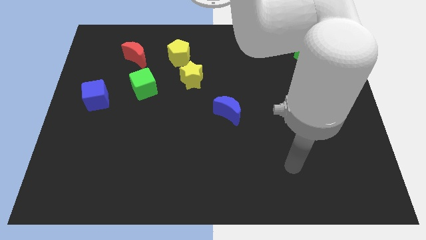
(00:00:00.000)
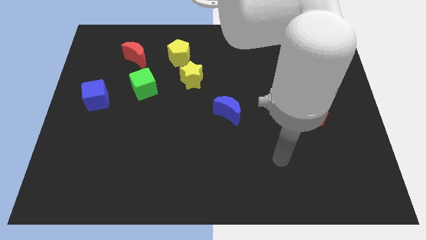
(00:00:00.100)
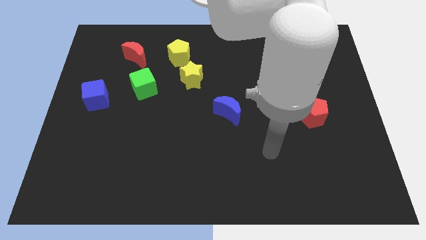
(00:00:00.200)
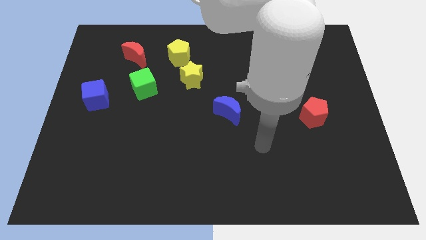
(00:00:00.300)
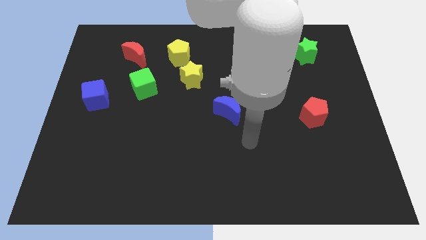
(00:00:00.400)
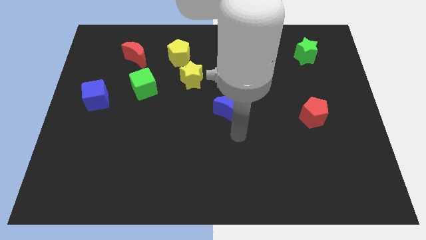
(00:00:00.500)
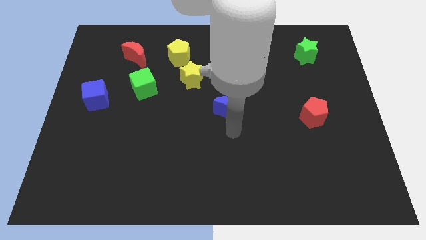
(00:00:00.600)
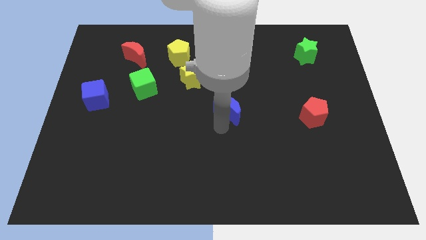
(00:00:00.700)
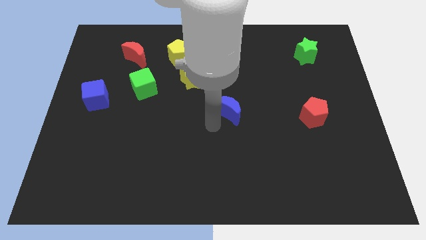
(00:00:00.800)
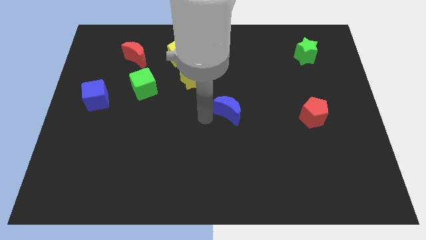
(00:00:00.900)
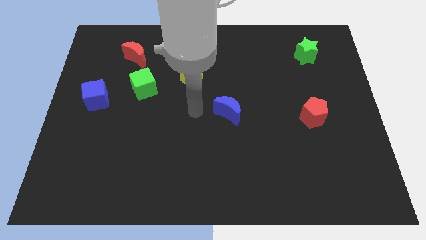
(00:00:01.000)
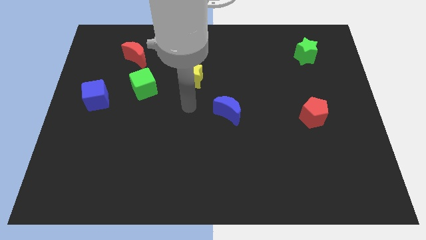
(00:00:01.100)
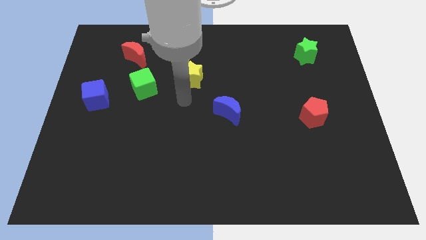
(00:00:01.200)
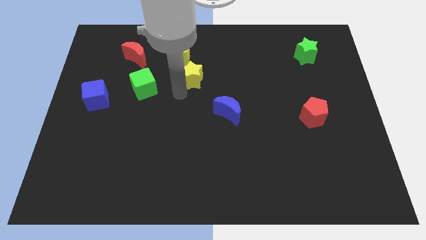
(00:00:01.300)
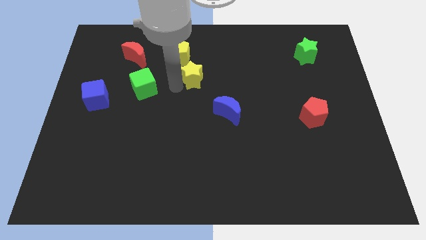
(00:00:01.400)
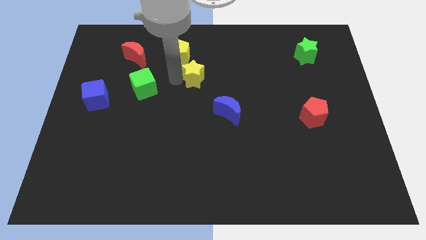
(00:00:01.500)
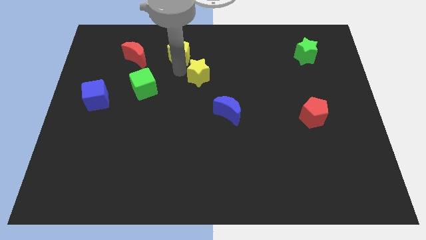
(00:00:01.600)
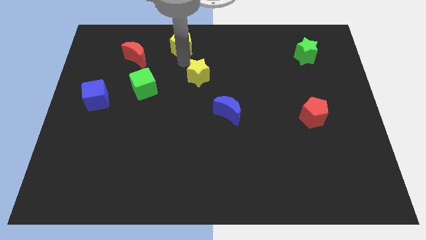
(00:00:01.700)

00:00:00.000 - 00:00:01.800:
pull the yellow star apart from the yellow pentagon

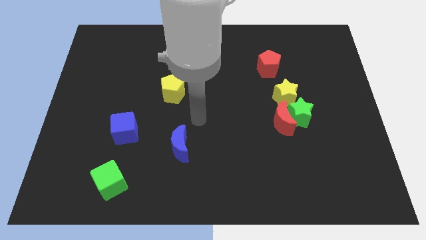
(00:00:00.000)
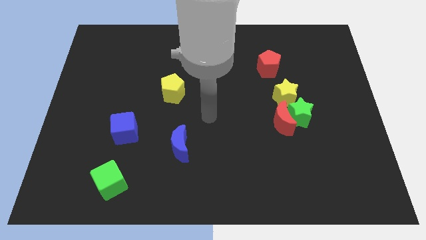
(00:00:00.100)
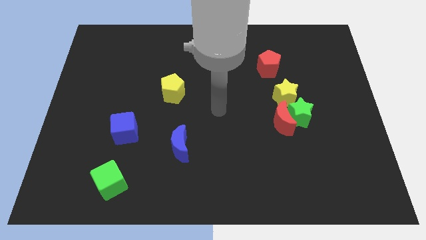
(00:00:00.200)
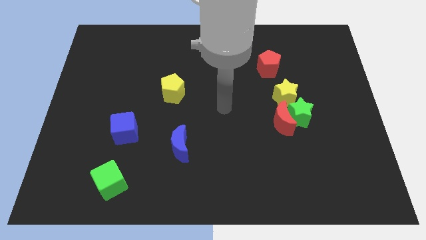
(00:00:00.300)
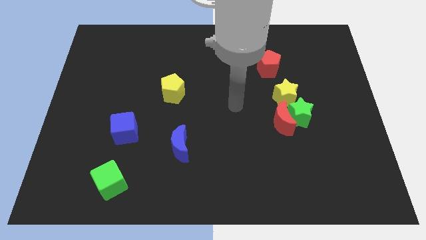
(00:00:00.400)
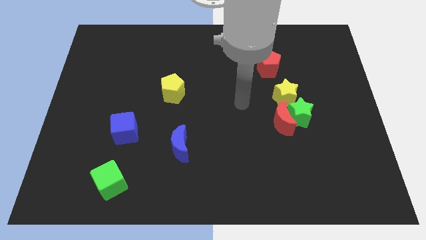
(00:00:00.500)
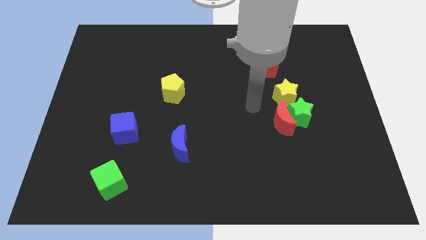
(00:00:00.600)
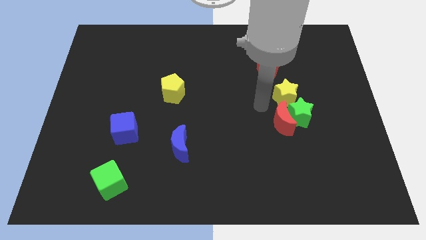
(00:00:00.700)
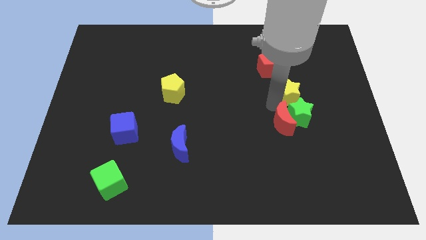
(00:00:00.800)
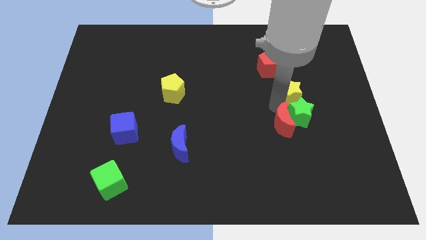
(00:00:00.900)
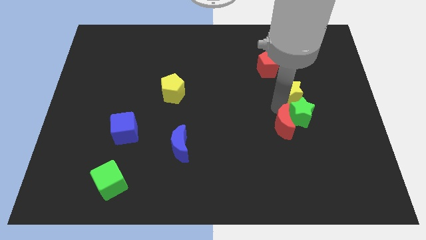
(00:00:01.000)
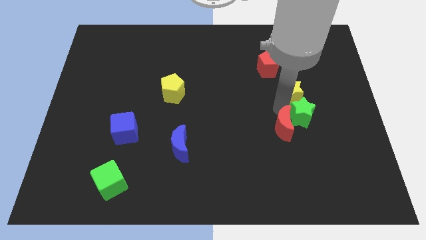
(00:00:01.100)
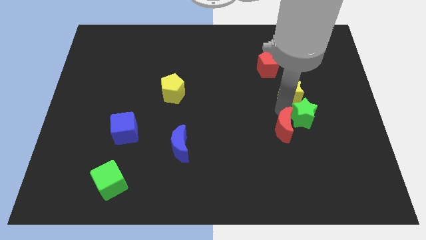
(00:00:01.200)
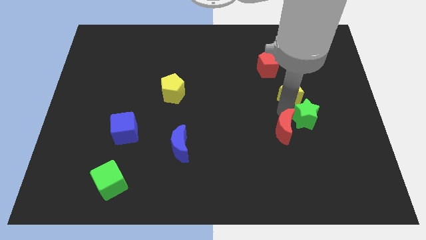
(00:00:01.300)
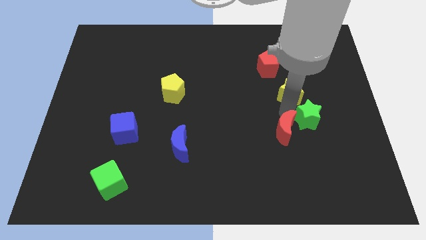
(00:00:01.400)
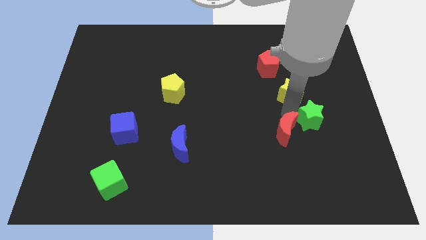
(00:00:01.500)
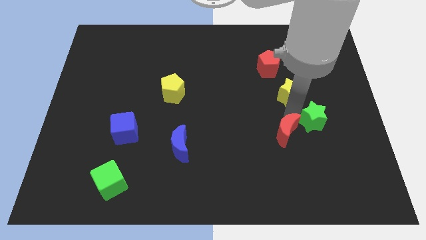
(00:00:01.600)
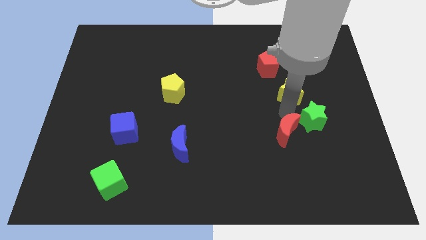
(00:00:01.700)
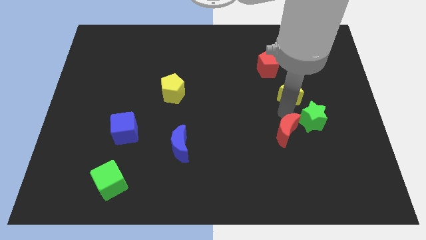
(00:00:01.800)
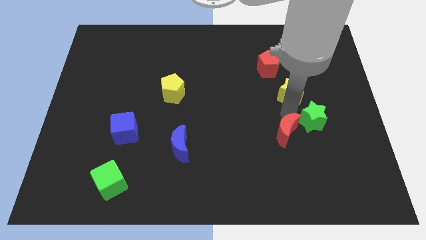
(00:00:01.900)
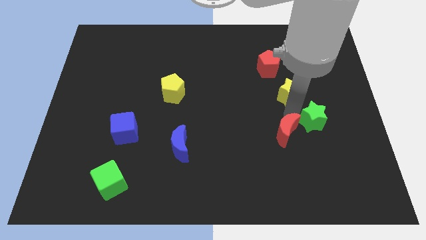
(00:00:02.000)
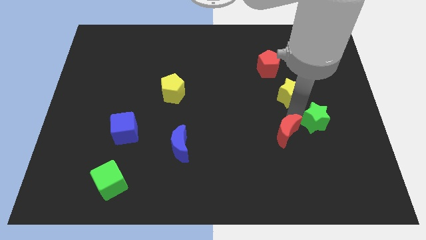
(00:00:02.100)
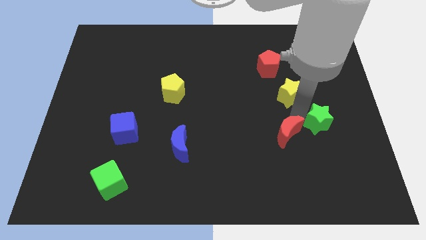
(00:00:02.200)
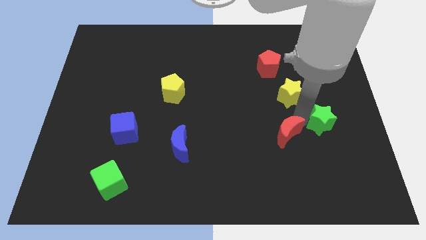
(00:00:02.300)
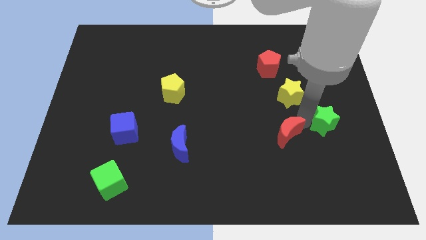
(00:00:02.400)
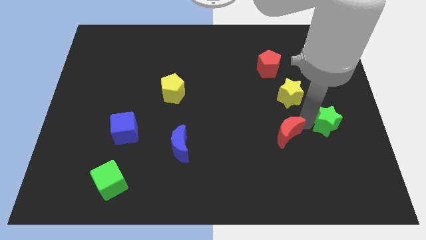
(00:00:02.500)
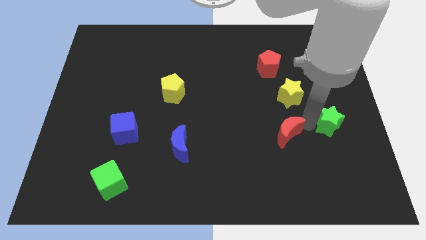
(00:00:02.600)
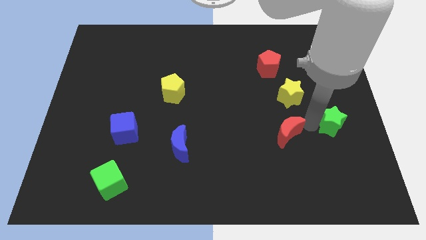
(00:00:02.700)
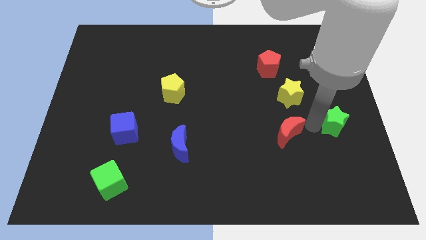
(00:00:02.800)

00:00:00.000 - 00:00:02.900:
pull the green star apart from the red moon and yellow star

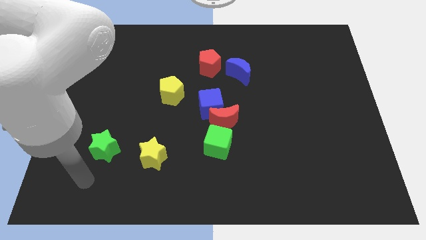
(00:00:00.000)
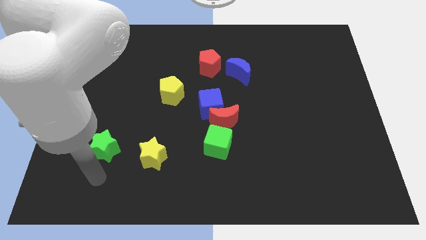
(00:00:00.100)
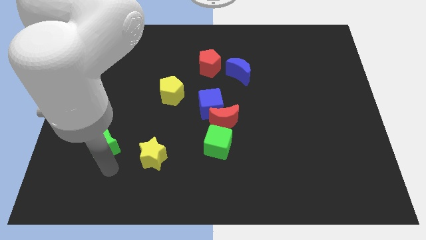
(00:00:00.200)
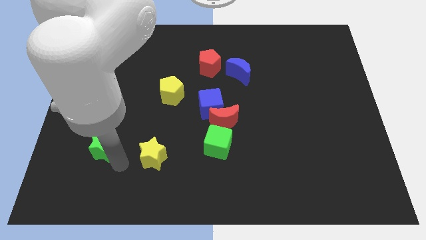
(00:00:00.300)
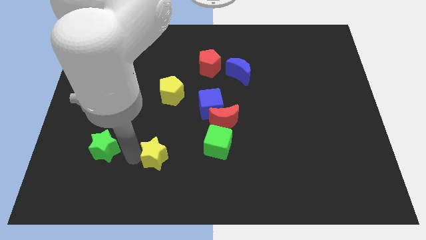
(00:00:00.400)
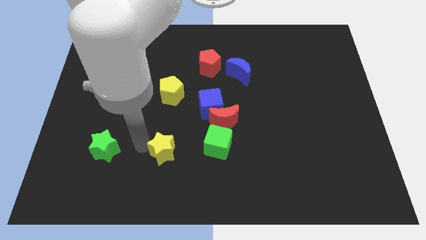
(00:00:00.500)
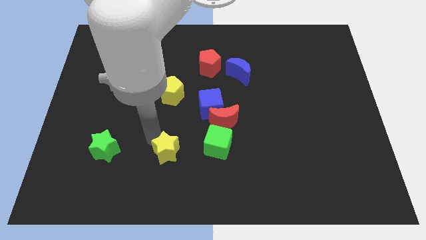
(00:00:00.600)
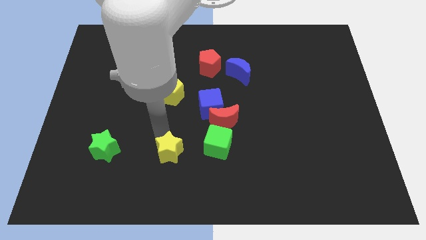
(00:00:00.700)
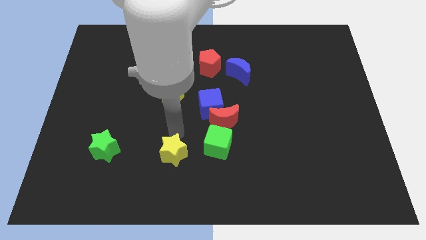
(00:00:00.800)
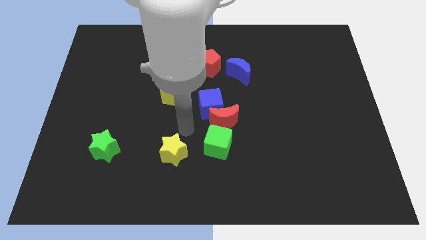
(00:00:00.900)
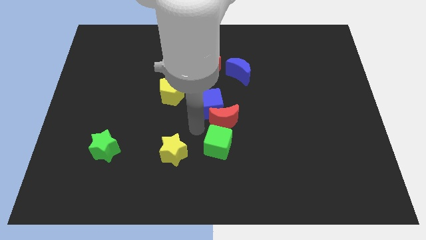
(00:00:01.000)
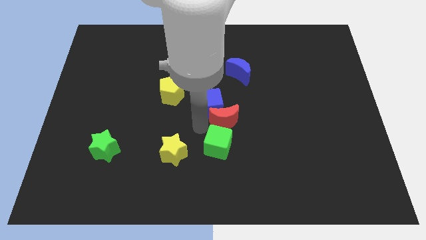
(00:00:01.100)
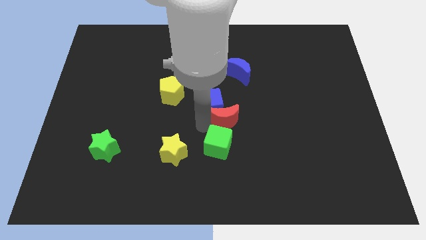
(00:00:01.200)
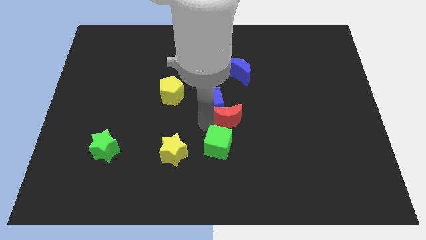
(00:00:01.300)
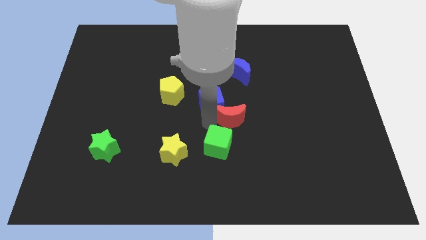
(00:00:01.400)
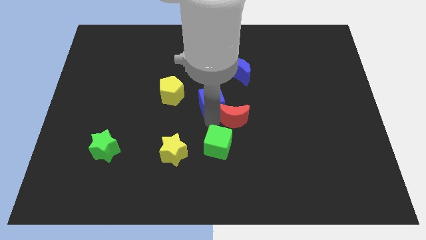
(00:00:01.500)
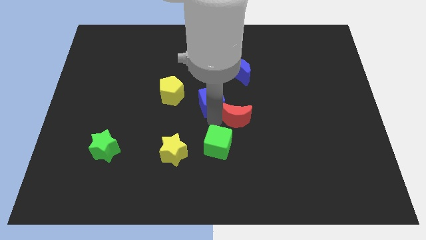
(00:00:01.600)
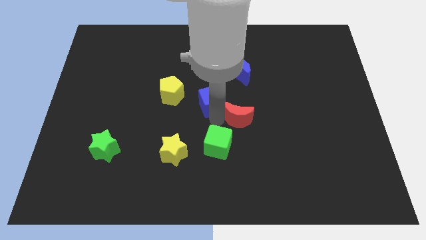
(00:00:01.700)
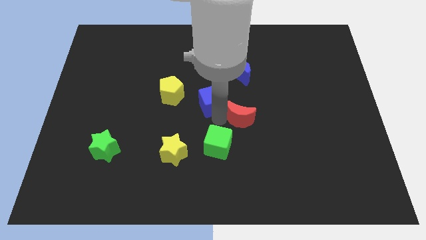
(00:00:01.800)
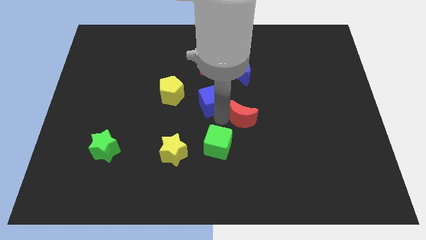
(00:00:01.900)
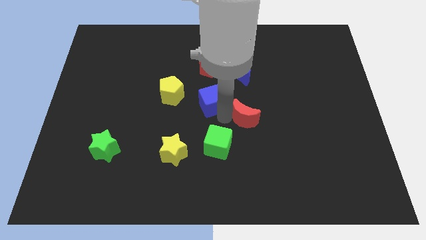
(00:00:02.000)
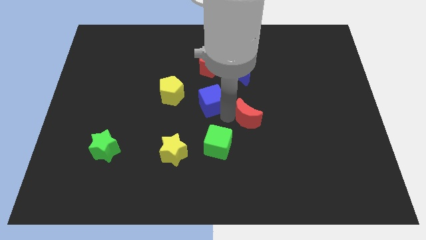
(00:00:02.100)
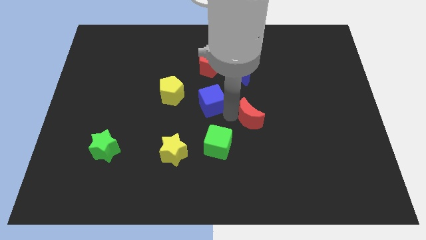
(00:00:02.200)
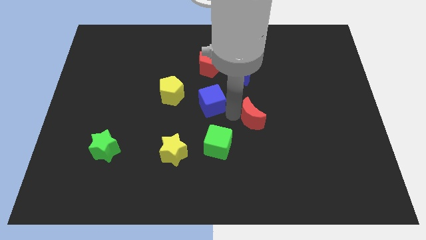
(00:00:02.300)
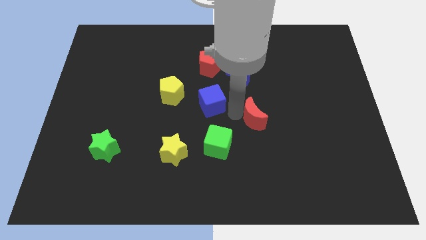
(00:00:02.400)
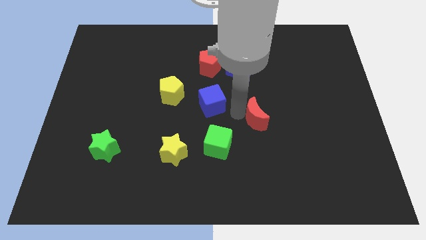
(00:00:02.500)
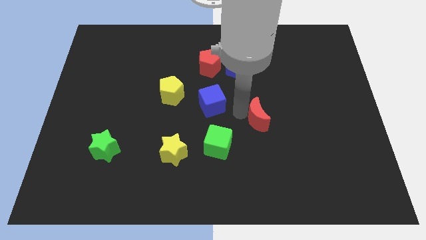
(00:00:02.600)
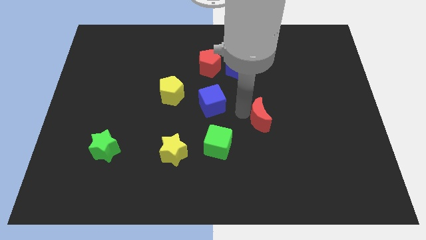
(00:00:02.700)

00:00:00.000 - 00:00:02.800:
move the red moon away from the blue cube and green cube

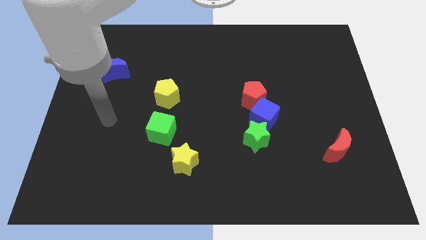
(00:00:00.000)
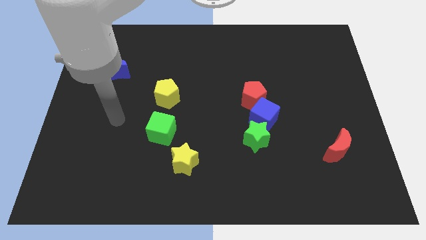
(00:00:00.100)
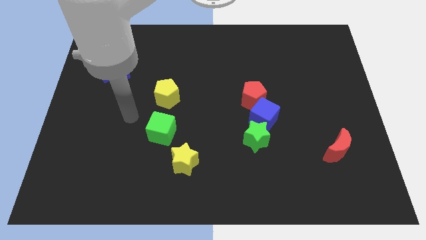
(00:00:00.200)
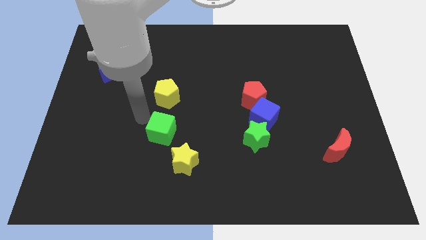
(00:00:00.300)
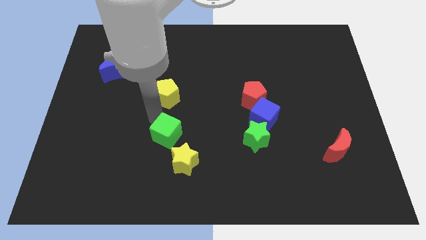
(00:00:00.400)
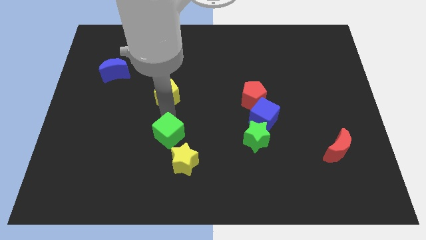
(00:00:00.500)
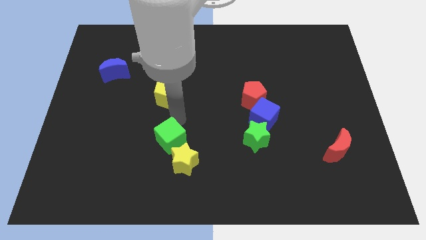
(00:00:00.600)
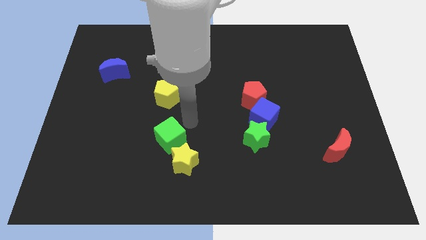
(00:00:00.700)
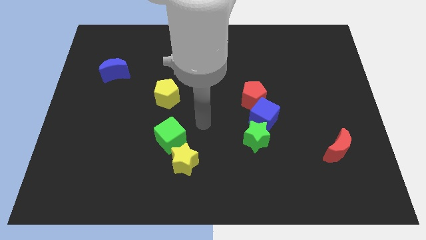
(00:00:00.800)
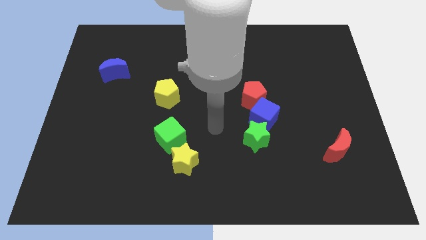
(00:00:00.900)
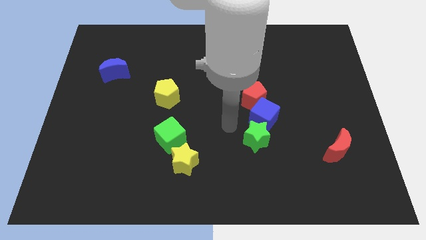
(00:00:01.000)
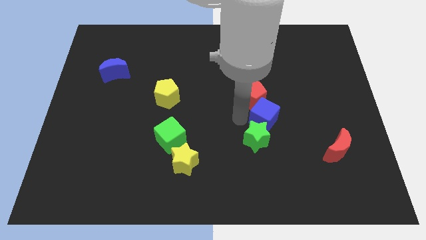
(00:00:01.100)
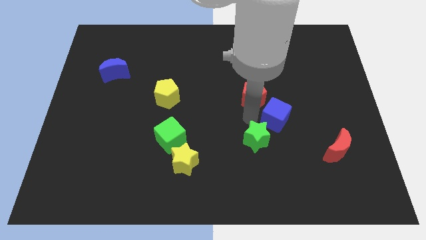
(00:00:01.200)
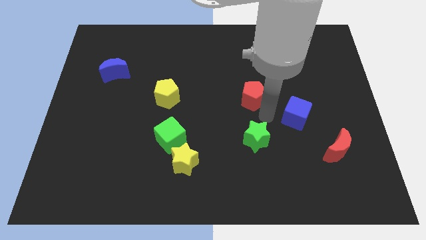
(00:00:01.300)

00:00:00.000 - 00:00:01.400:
separate the red pentagon from the blue cube

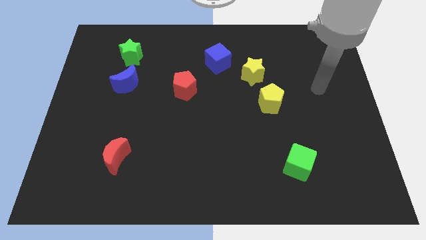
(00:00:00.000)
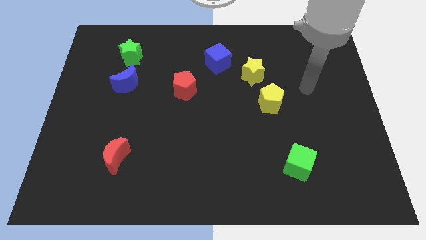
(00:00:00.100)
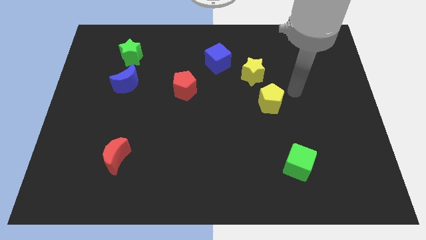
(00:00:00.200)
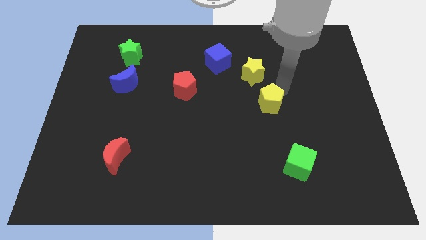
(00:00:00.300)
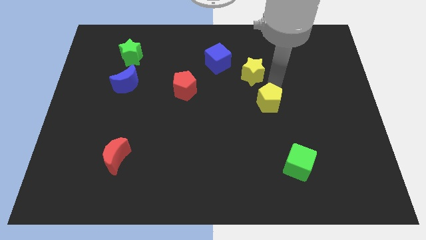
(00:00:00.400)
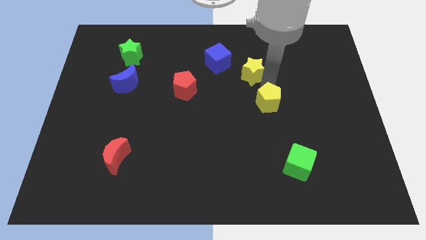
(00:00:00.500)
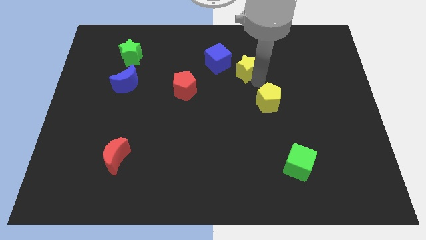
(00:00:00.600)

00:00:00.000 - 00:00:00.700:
move the yellow pentagon away from the yellow star
